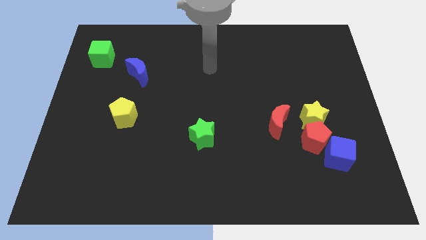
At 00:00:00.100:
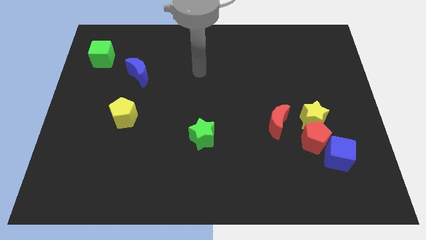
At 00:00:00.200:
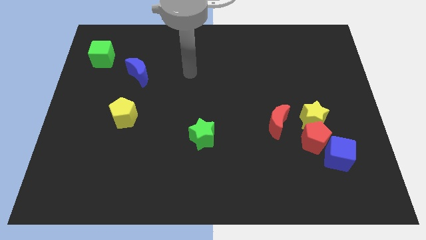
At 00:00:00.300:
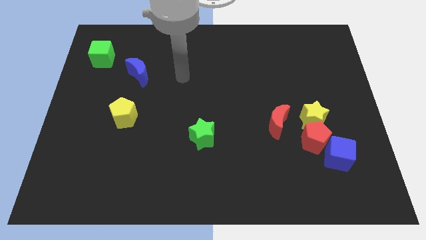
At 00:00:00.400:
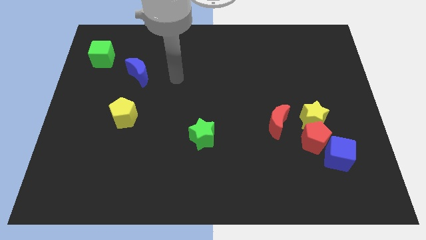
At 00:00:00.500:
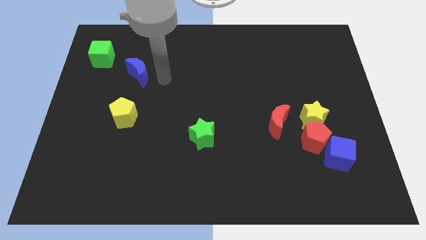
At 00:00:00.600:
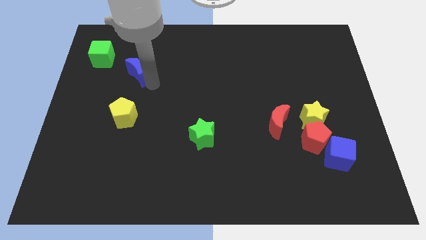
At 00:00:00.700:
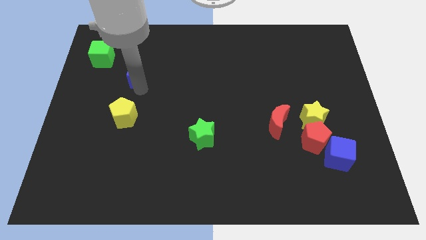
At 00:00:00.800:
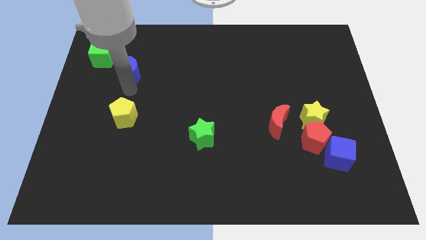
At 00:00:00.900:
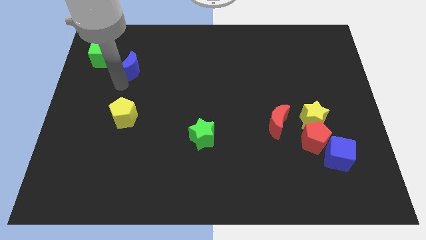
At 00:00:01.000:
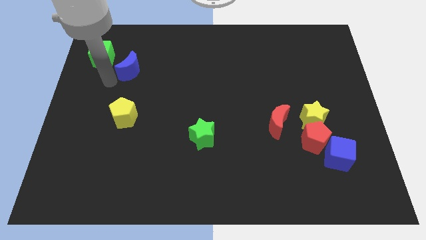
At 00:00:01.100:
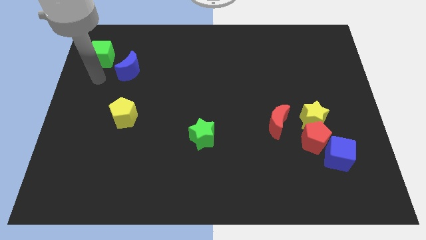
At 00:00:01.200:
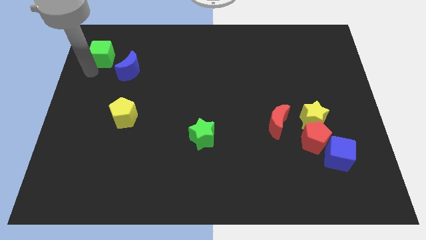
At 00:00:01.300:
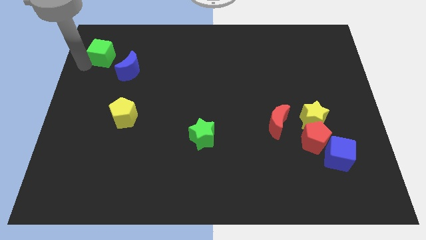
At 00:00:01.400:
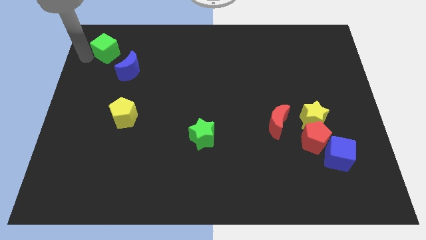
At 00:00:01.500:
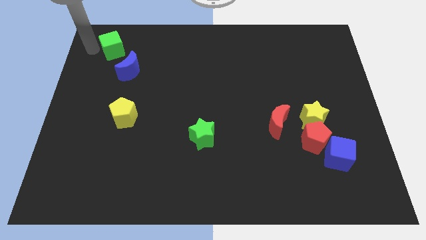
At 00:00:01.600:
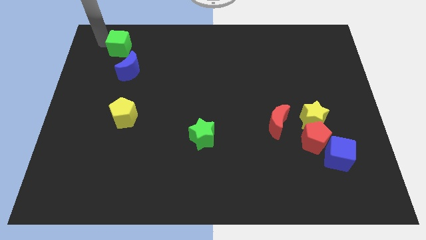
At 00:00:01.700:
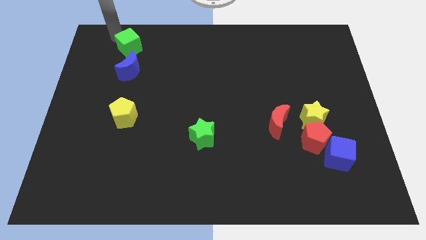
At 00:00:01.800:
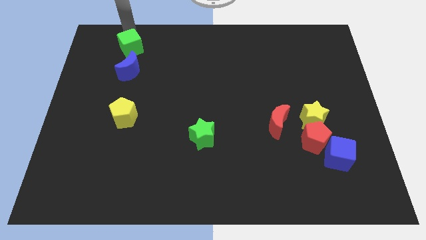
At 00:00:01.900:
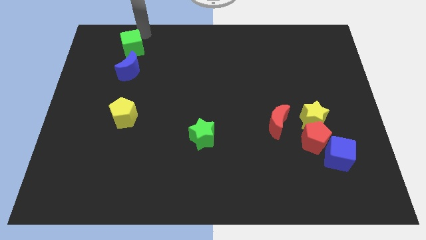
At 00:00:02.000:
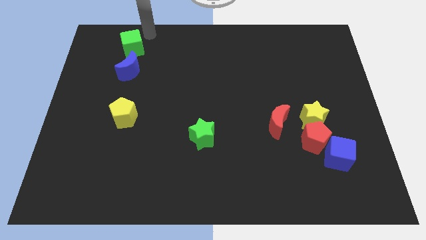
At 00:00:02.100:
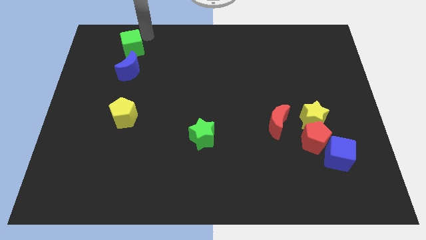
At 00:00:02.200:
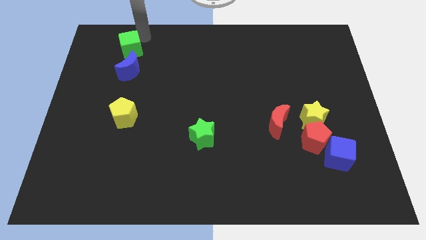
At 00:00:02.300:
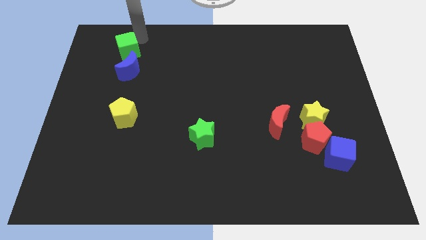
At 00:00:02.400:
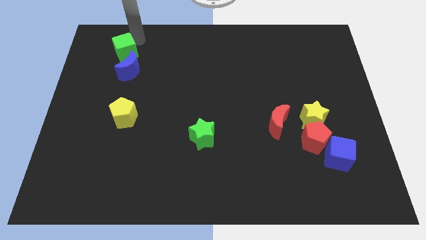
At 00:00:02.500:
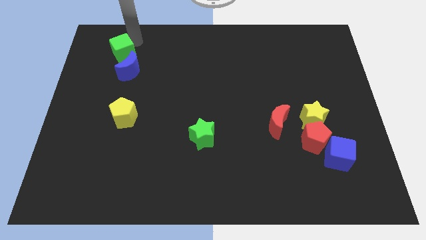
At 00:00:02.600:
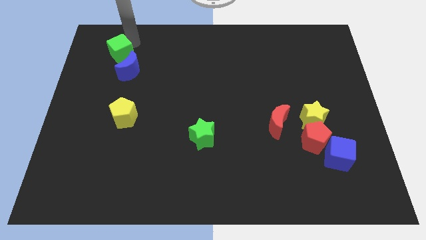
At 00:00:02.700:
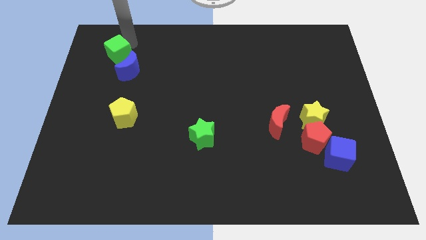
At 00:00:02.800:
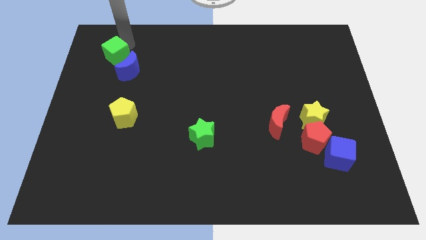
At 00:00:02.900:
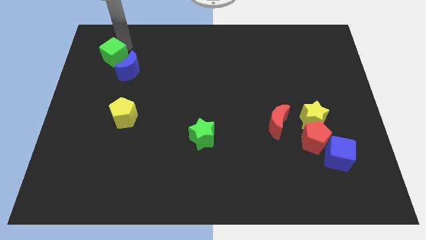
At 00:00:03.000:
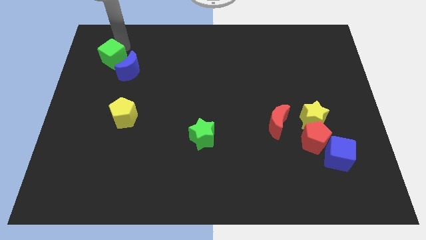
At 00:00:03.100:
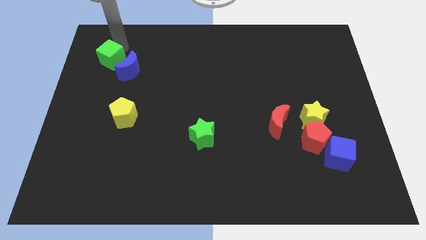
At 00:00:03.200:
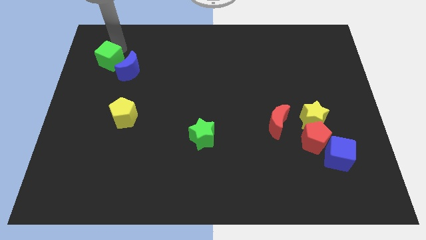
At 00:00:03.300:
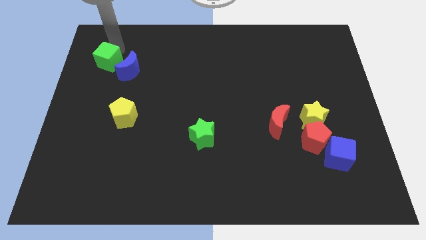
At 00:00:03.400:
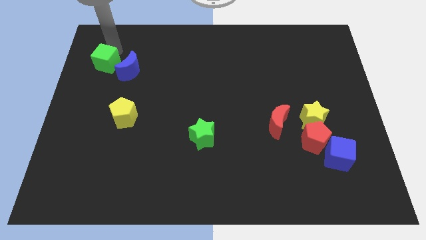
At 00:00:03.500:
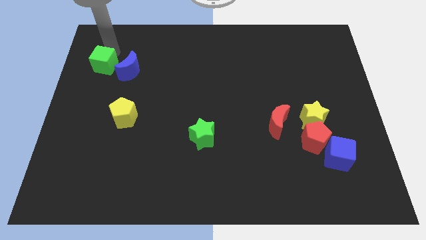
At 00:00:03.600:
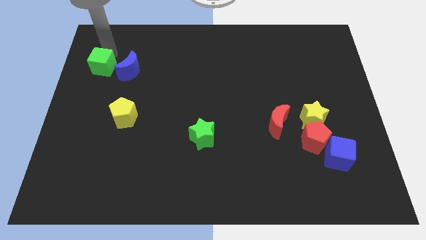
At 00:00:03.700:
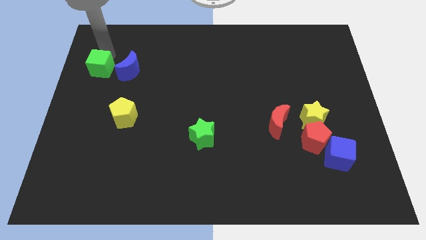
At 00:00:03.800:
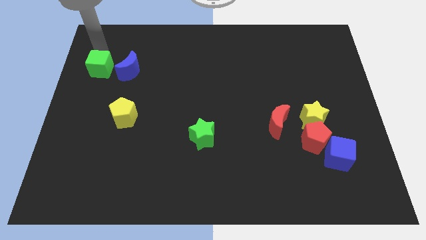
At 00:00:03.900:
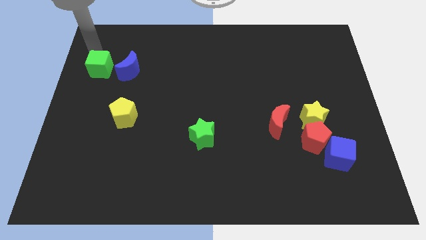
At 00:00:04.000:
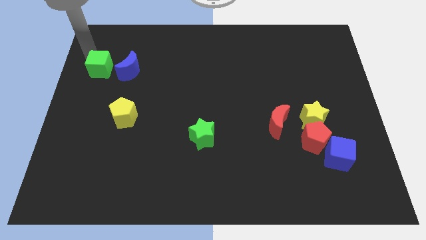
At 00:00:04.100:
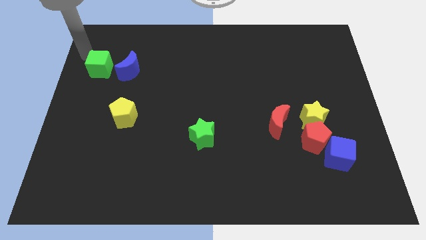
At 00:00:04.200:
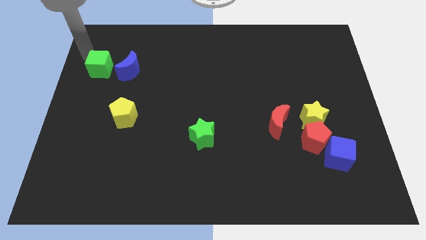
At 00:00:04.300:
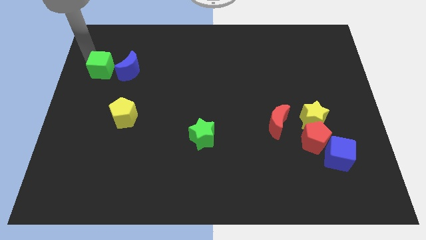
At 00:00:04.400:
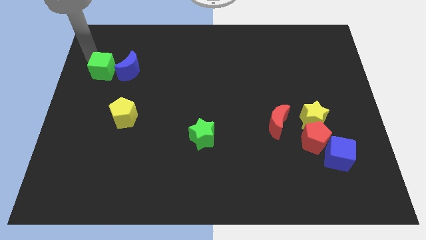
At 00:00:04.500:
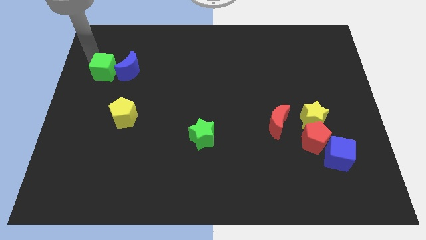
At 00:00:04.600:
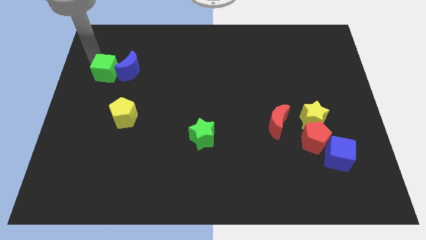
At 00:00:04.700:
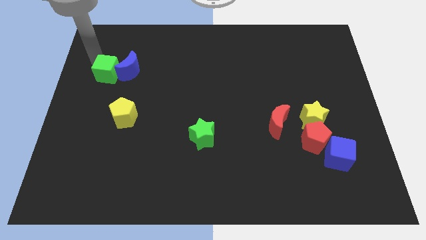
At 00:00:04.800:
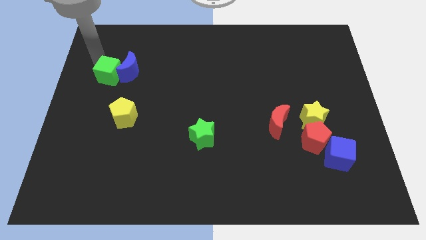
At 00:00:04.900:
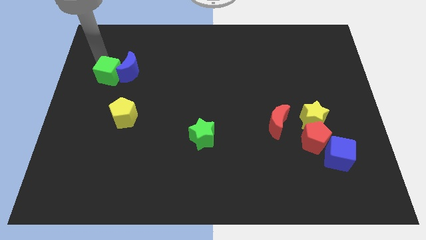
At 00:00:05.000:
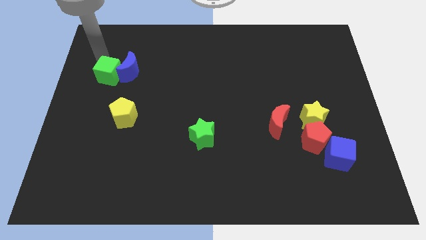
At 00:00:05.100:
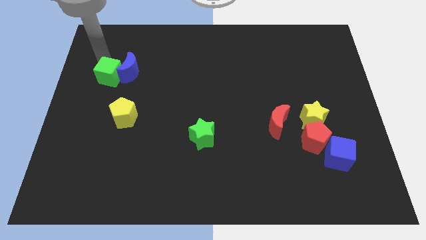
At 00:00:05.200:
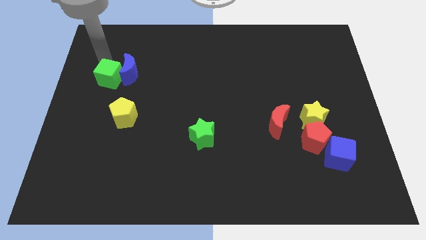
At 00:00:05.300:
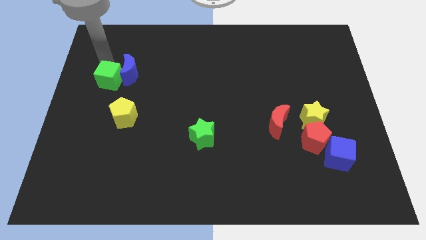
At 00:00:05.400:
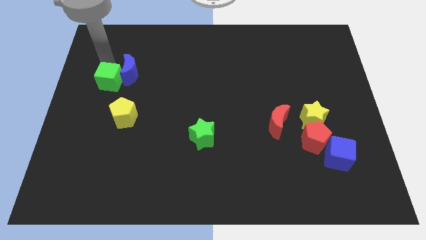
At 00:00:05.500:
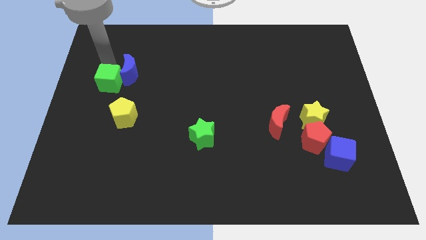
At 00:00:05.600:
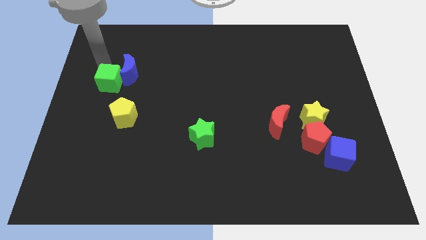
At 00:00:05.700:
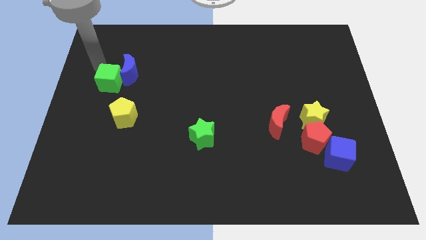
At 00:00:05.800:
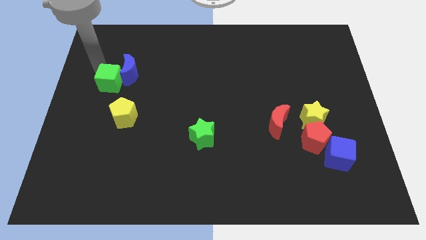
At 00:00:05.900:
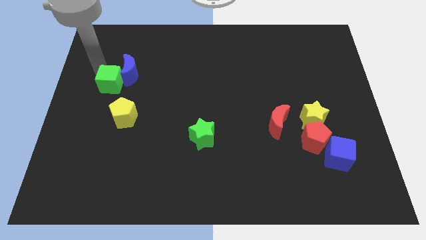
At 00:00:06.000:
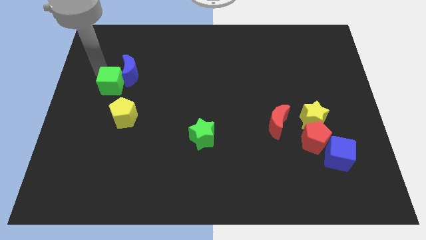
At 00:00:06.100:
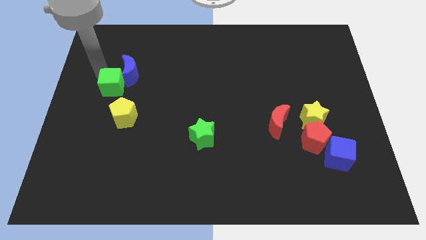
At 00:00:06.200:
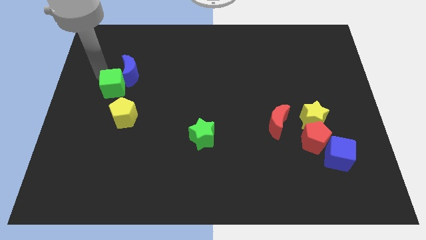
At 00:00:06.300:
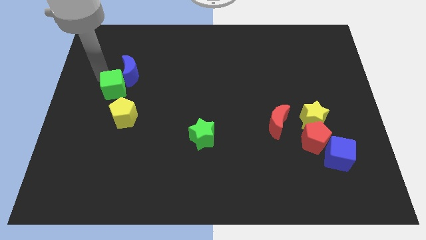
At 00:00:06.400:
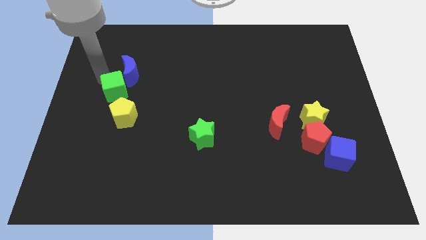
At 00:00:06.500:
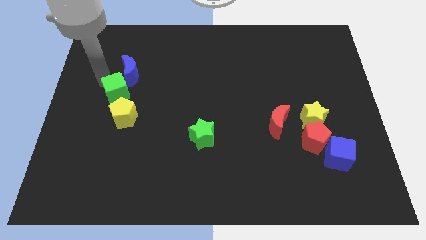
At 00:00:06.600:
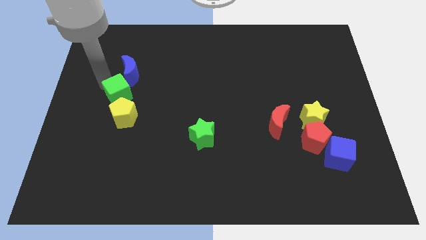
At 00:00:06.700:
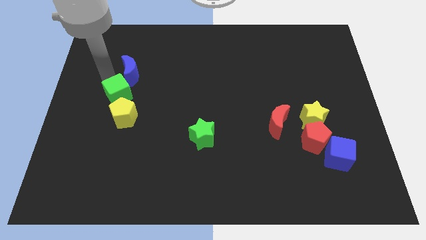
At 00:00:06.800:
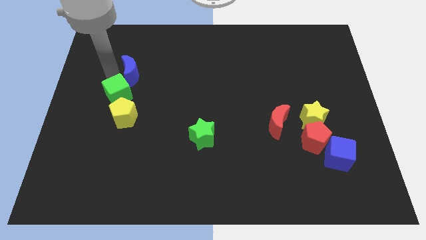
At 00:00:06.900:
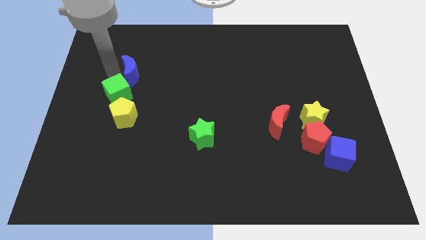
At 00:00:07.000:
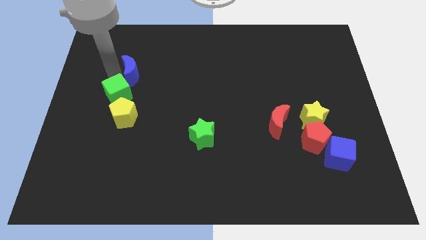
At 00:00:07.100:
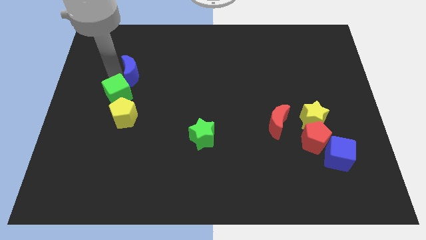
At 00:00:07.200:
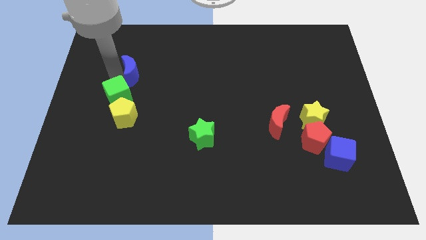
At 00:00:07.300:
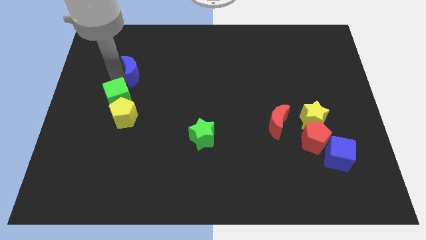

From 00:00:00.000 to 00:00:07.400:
put the green cube close to the yellow pentagon
